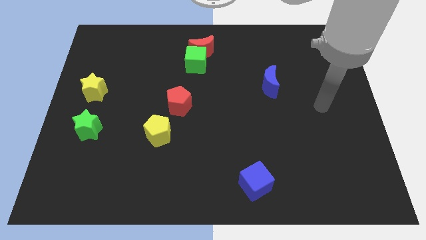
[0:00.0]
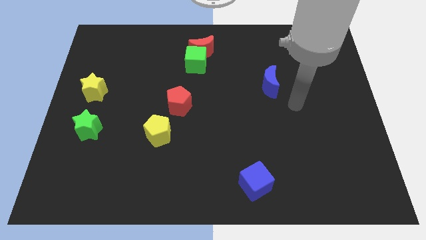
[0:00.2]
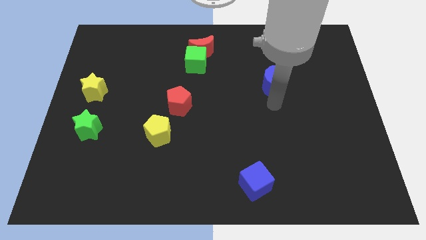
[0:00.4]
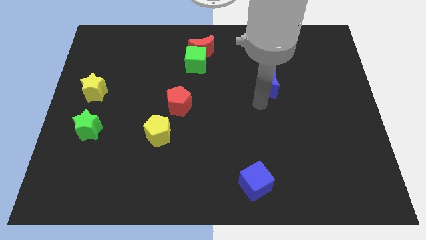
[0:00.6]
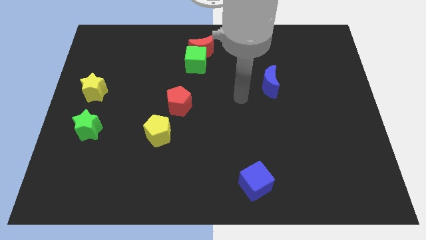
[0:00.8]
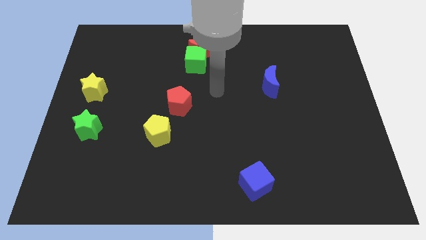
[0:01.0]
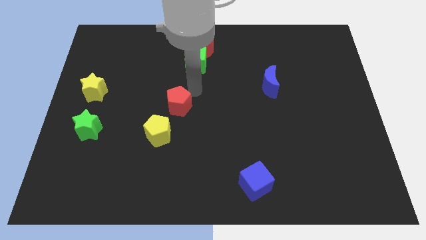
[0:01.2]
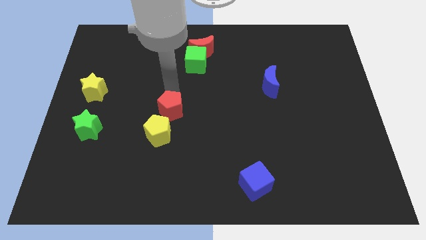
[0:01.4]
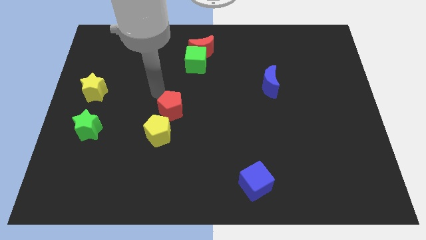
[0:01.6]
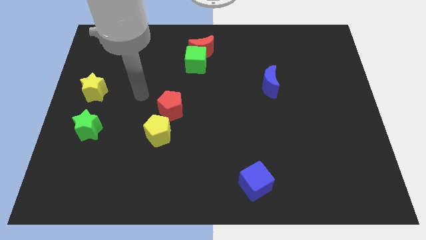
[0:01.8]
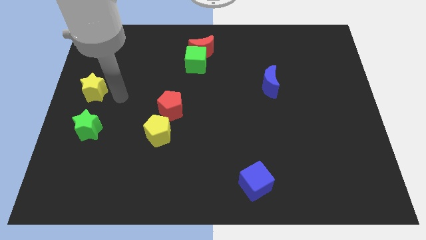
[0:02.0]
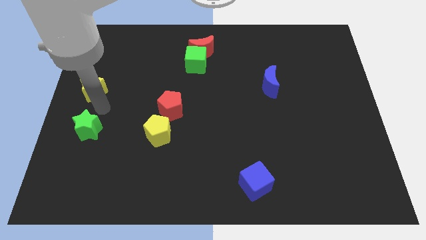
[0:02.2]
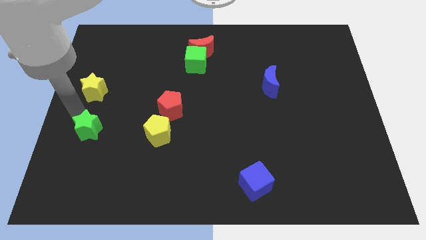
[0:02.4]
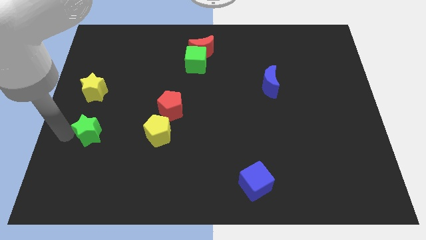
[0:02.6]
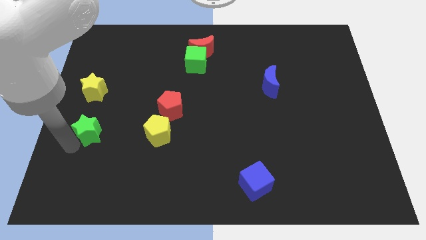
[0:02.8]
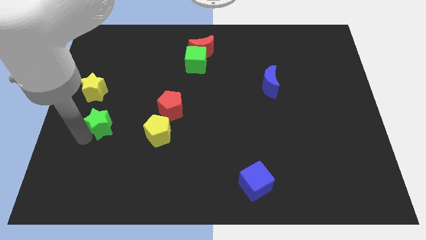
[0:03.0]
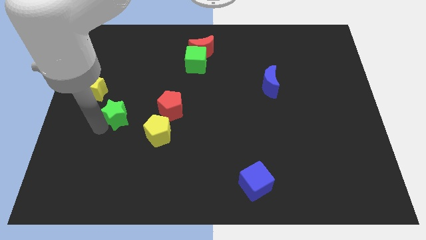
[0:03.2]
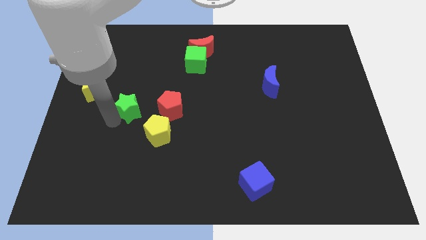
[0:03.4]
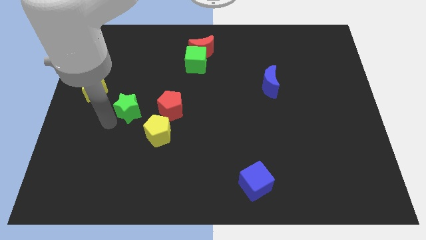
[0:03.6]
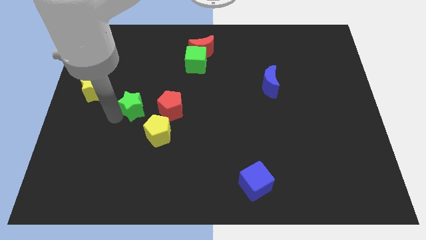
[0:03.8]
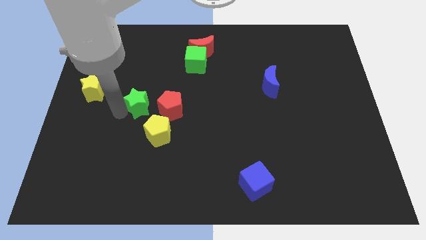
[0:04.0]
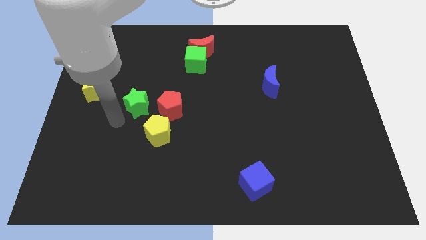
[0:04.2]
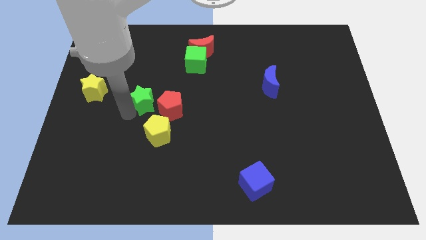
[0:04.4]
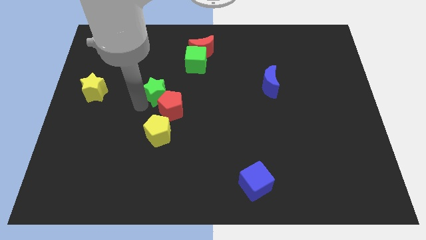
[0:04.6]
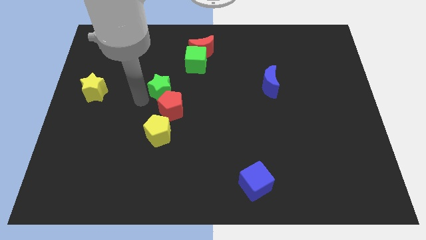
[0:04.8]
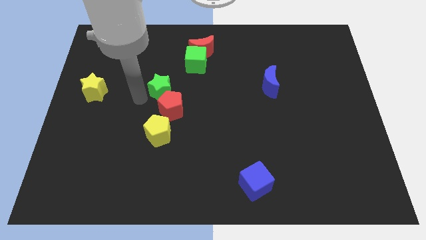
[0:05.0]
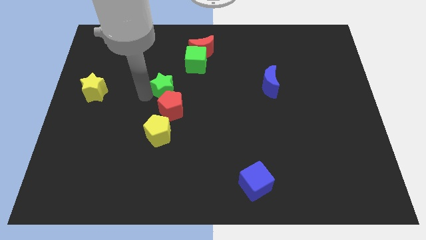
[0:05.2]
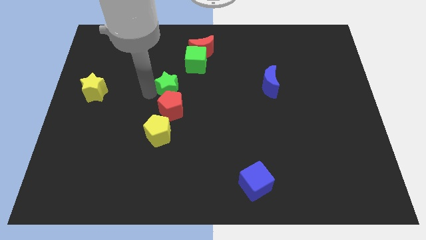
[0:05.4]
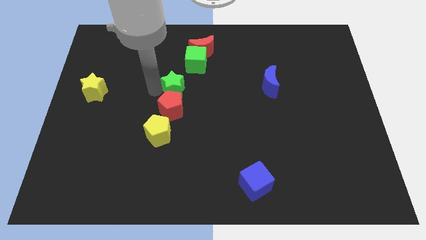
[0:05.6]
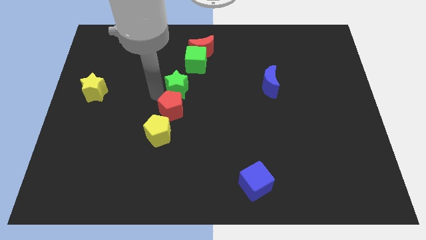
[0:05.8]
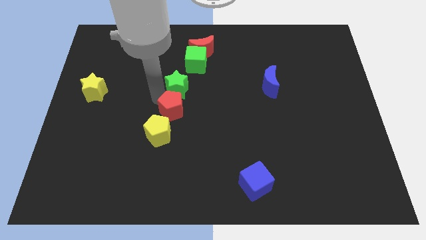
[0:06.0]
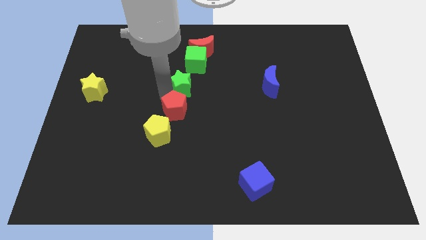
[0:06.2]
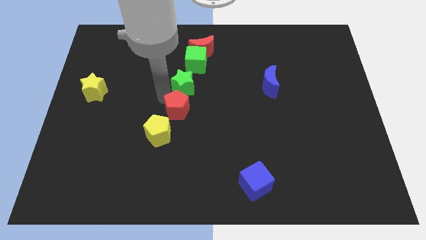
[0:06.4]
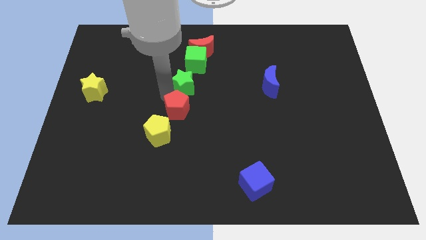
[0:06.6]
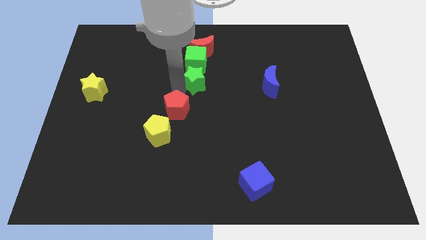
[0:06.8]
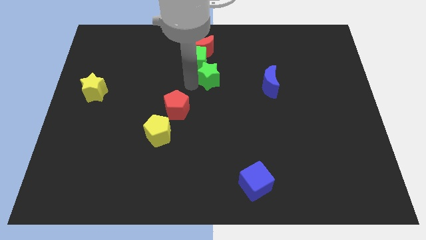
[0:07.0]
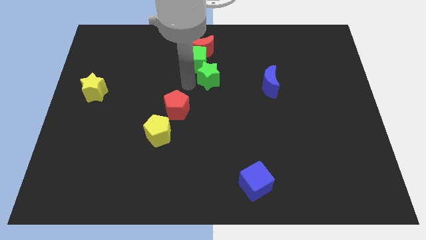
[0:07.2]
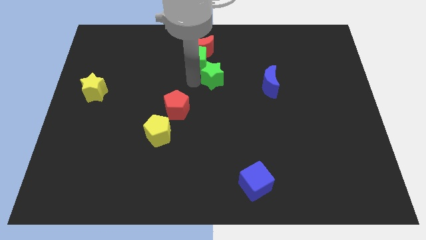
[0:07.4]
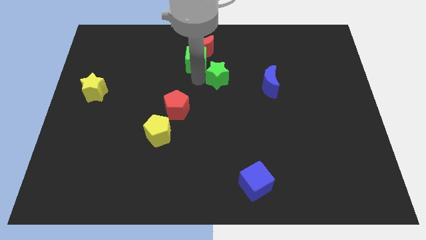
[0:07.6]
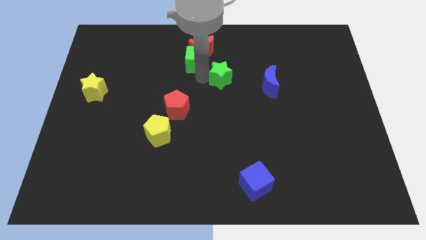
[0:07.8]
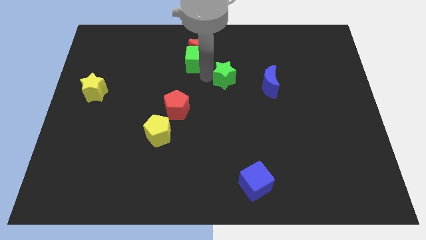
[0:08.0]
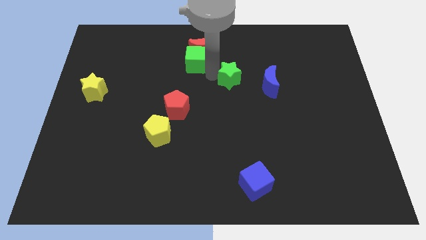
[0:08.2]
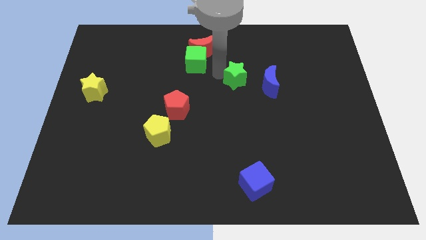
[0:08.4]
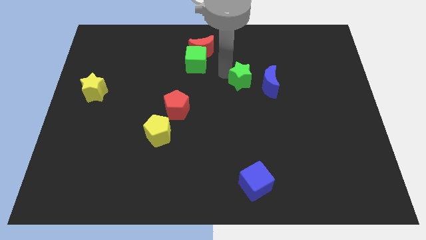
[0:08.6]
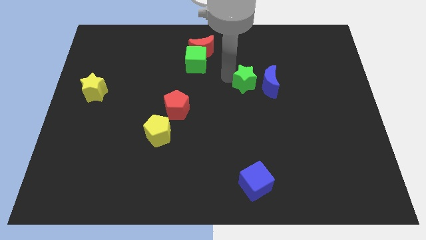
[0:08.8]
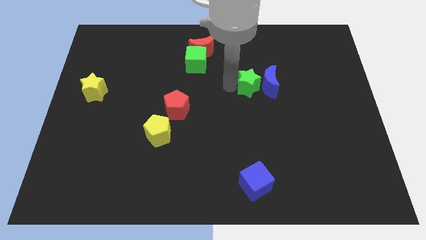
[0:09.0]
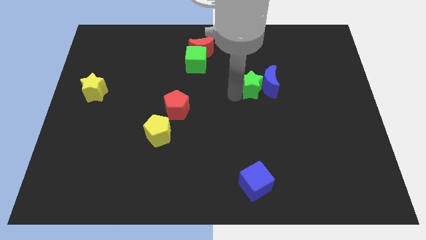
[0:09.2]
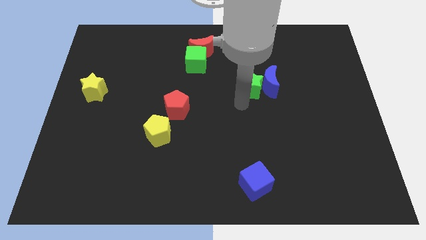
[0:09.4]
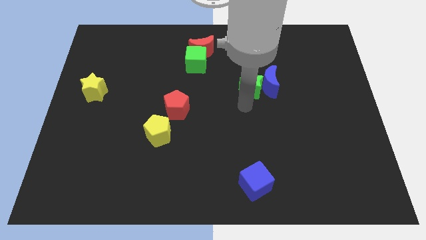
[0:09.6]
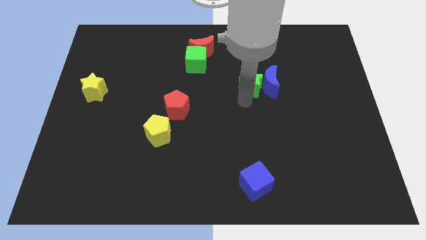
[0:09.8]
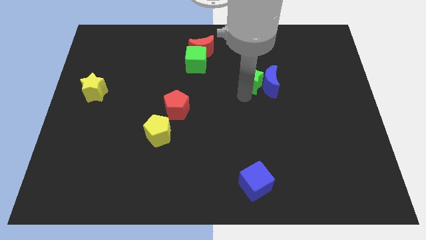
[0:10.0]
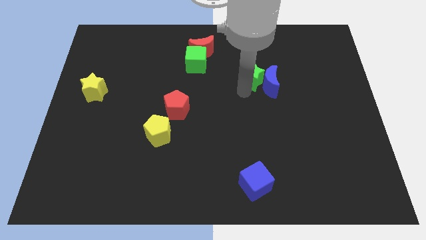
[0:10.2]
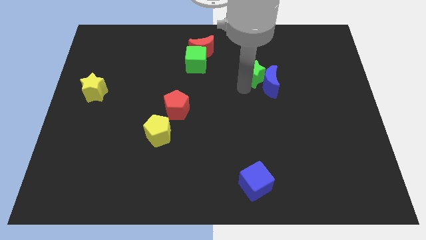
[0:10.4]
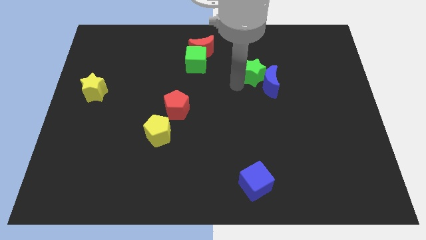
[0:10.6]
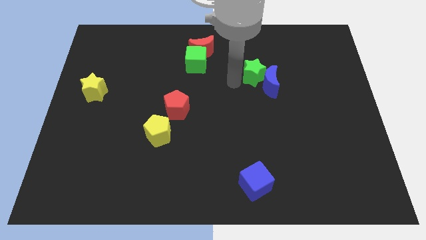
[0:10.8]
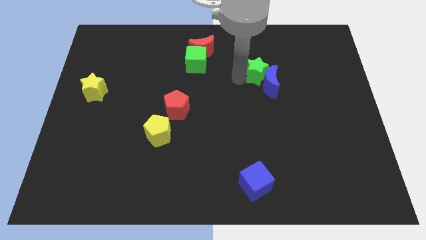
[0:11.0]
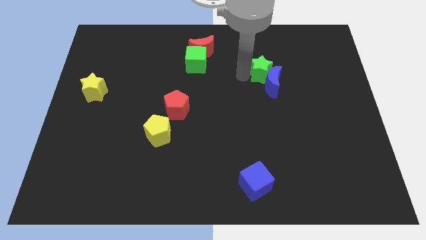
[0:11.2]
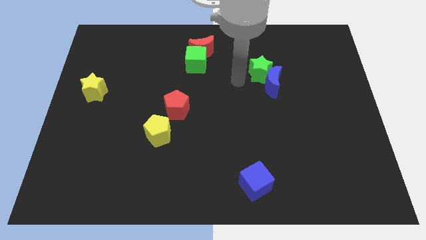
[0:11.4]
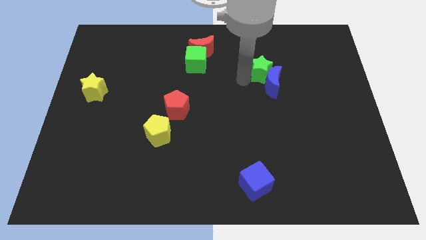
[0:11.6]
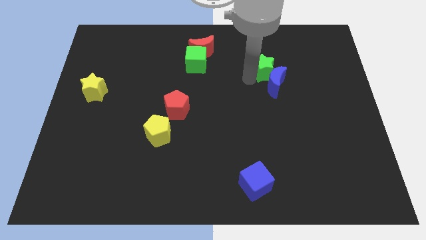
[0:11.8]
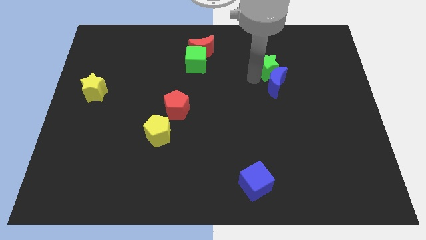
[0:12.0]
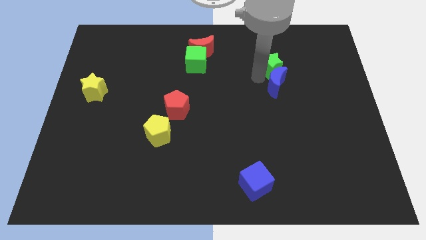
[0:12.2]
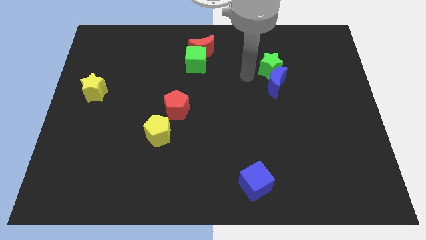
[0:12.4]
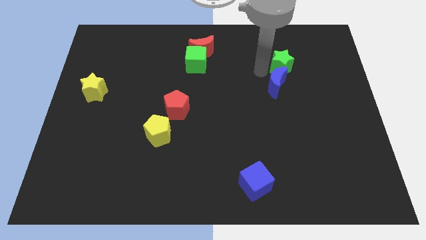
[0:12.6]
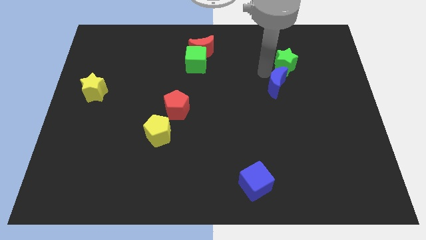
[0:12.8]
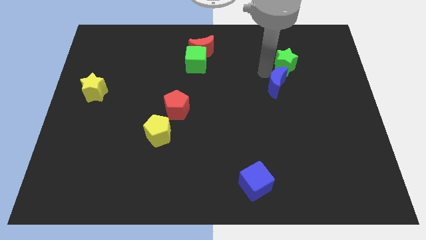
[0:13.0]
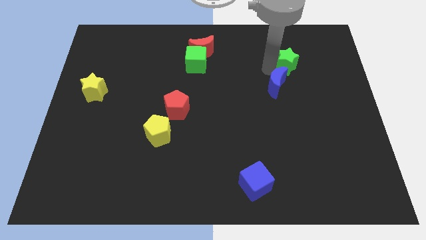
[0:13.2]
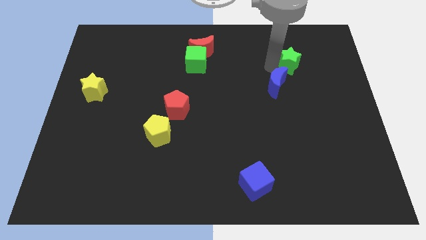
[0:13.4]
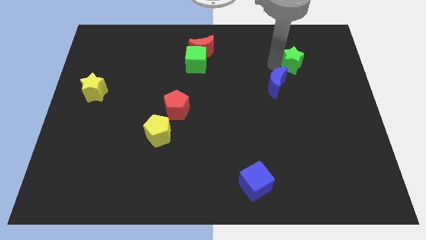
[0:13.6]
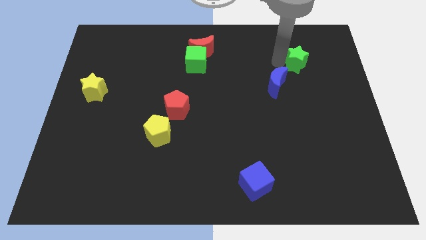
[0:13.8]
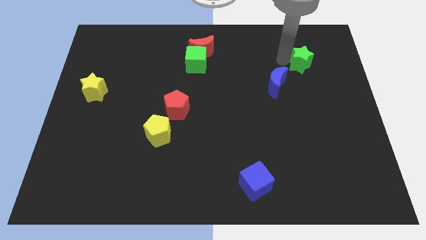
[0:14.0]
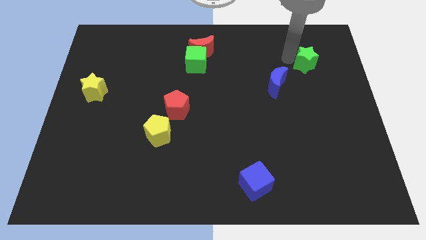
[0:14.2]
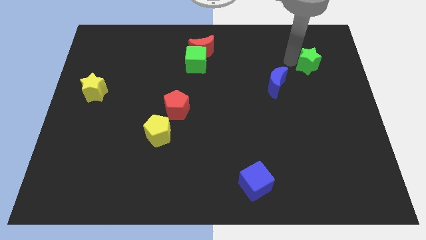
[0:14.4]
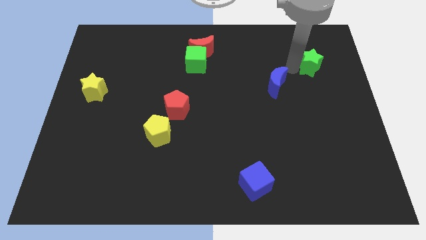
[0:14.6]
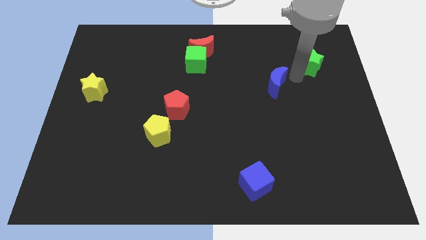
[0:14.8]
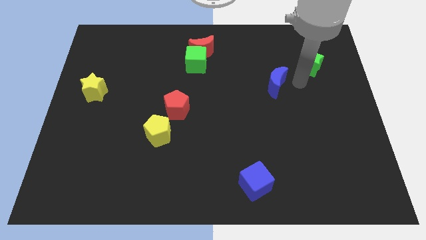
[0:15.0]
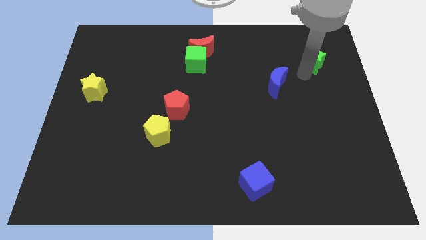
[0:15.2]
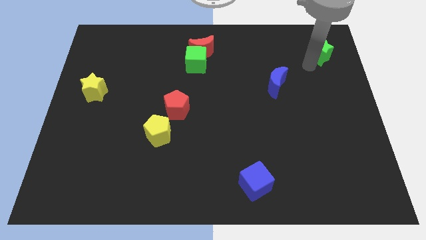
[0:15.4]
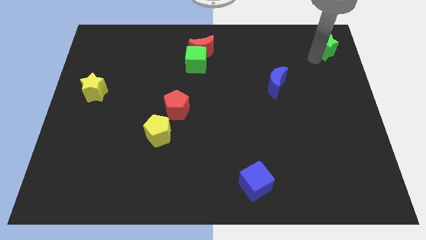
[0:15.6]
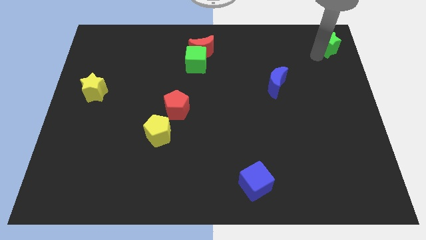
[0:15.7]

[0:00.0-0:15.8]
put the green star to the top right
